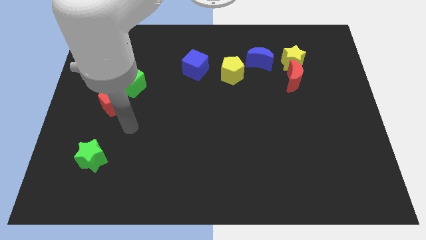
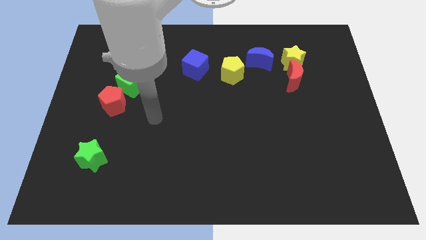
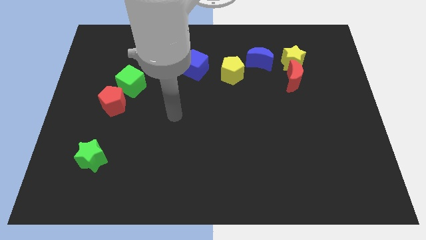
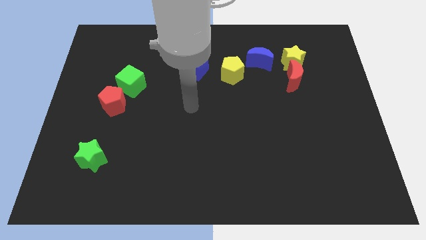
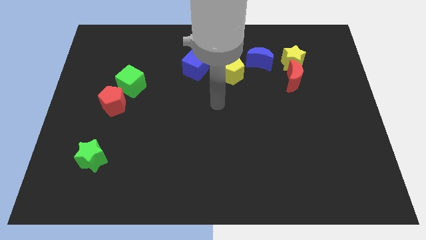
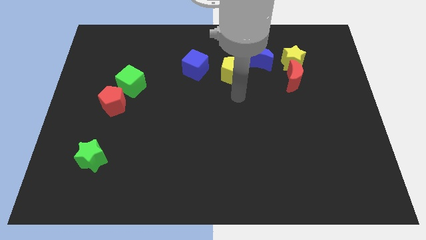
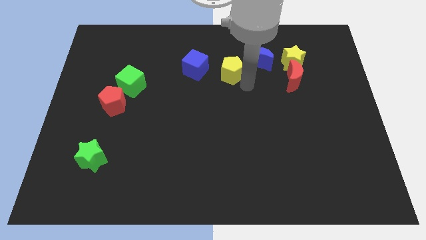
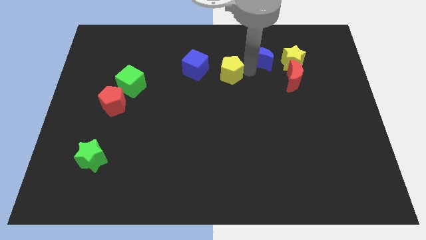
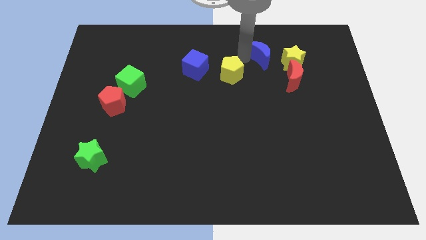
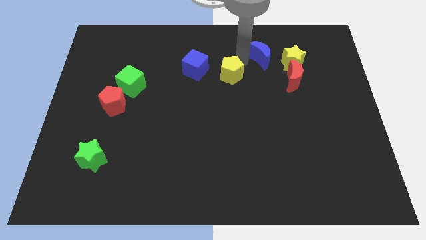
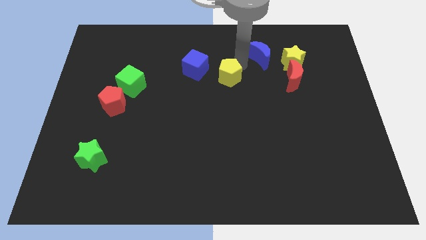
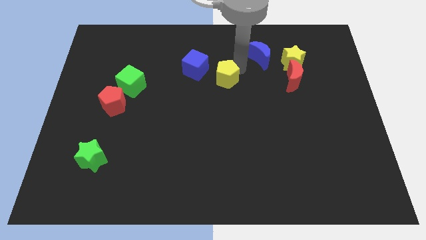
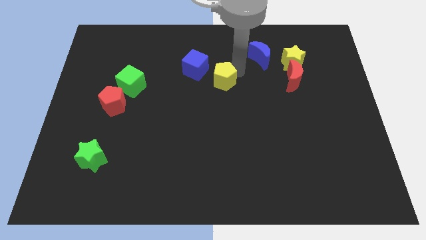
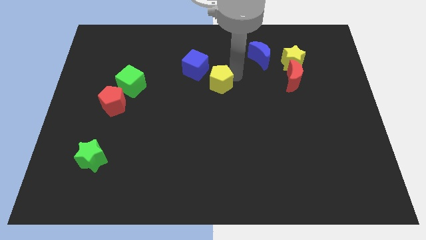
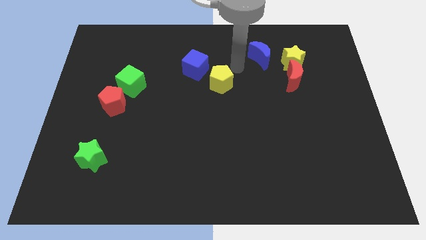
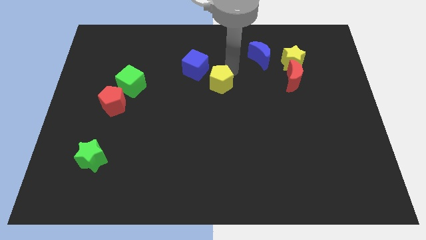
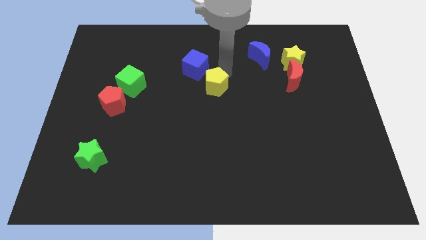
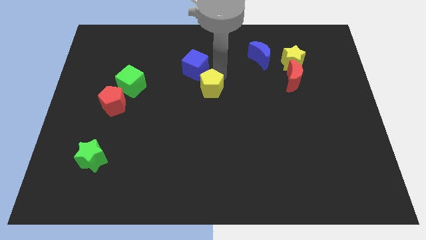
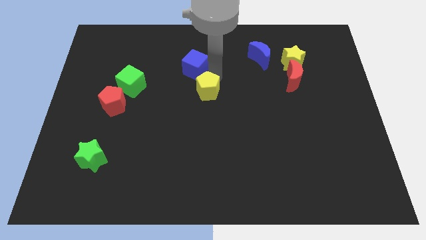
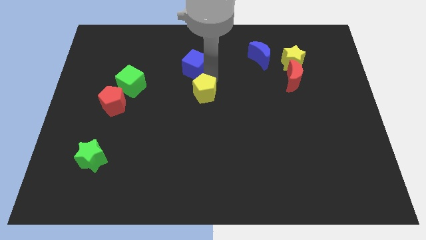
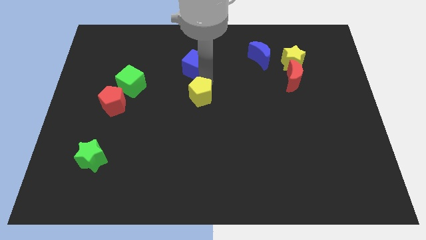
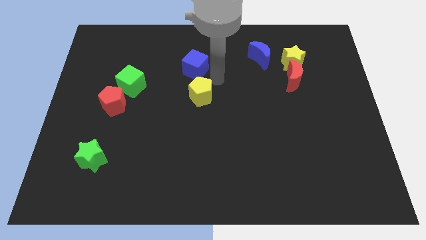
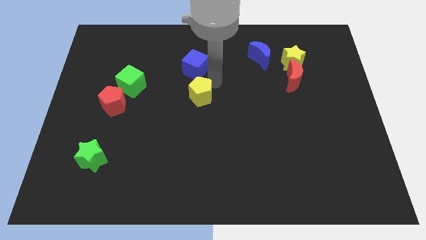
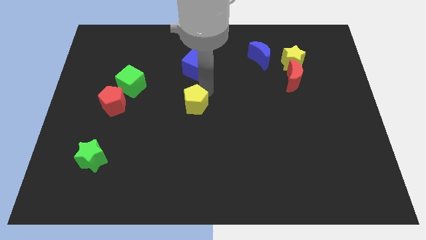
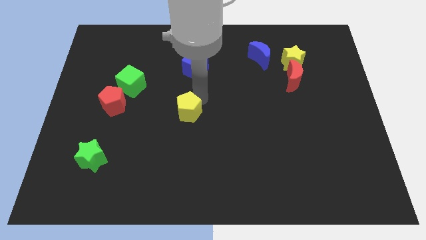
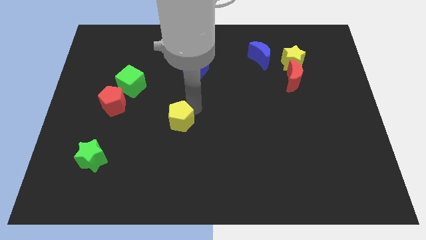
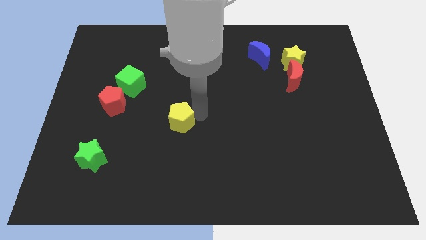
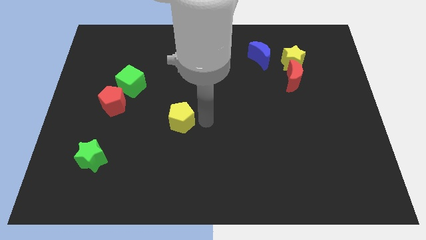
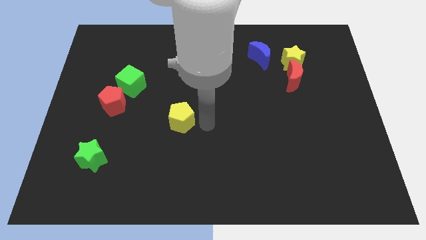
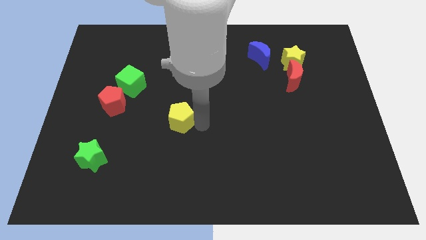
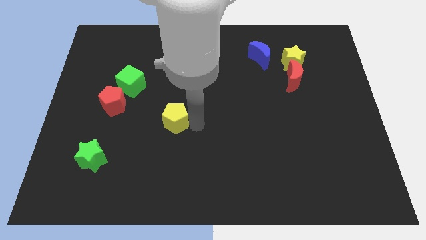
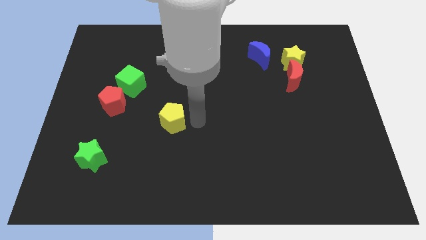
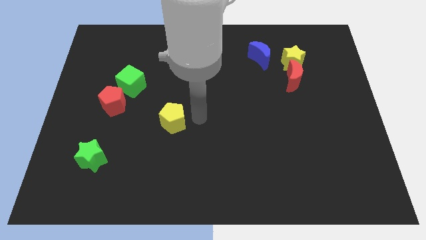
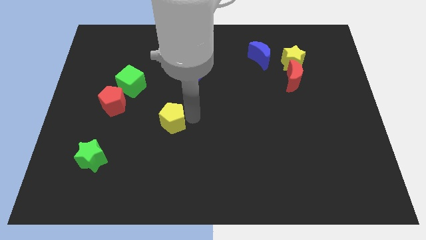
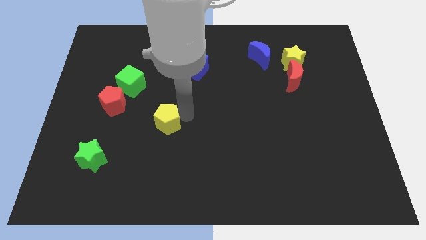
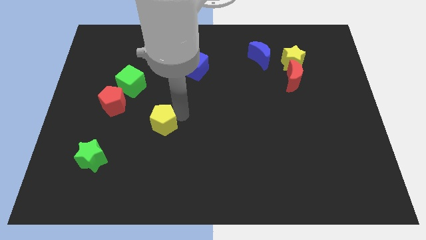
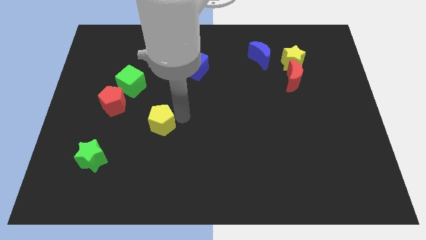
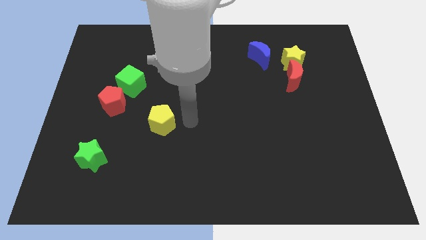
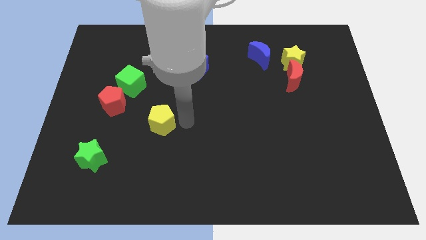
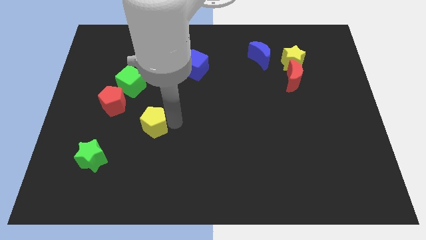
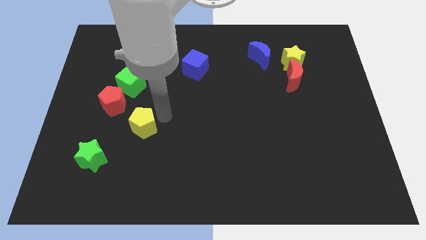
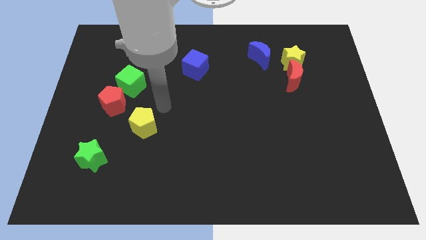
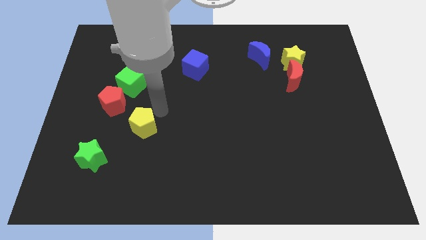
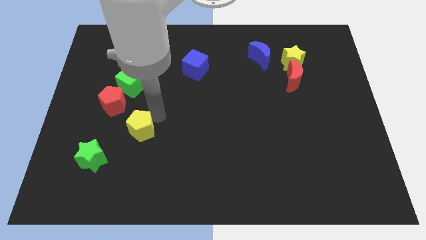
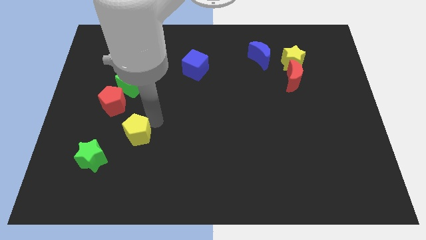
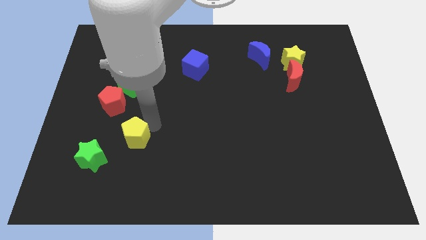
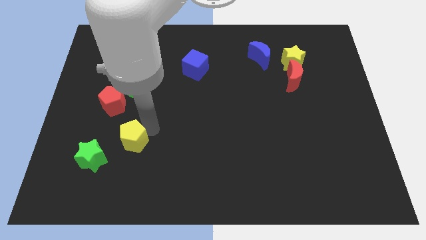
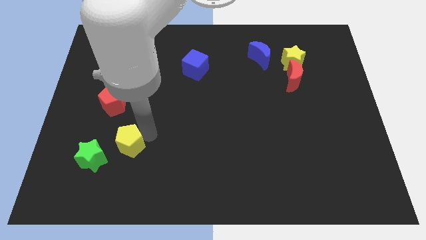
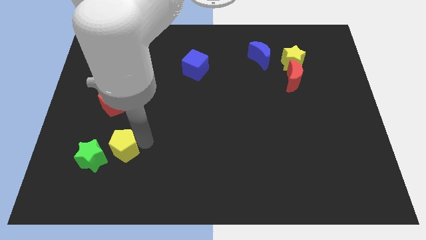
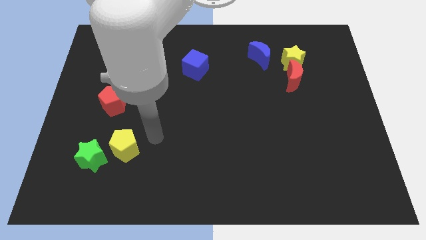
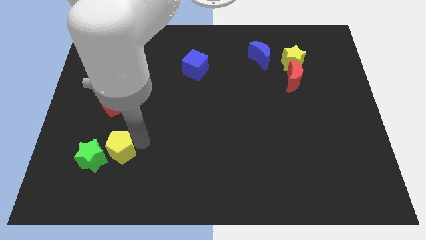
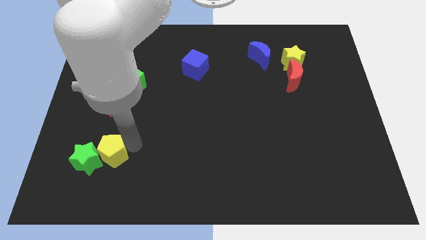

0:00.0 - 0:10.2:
slide the yellow pentagon towards the green star

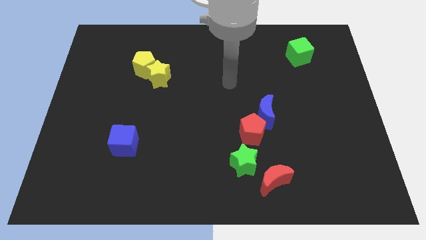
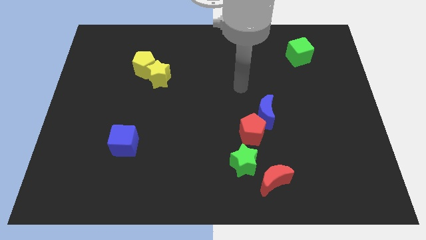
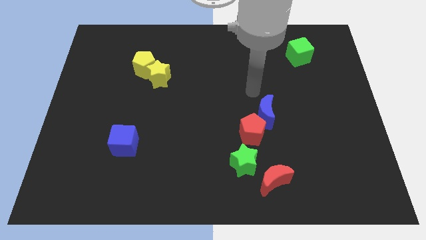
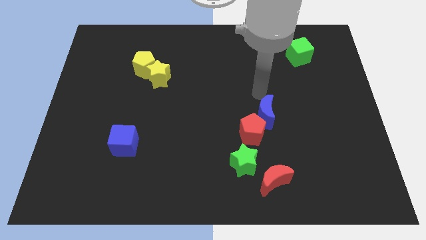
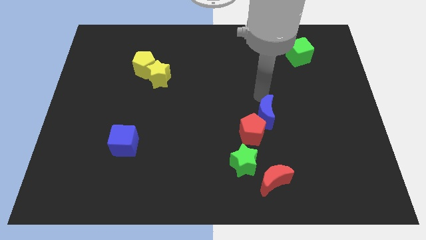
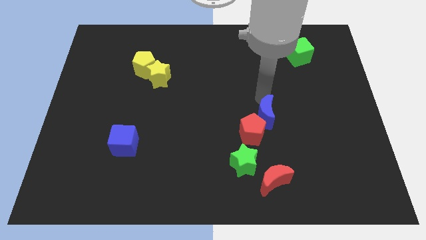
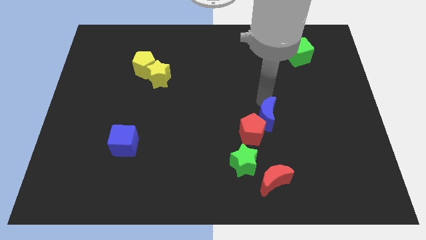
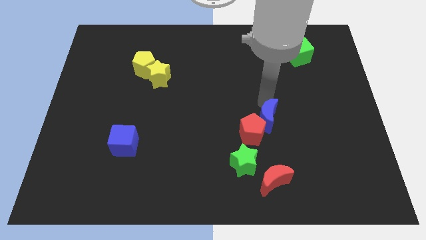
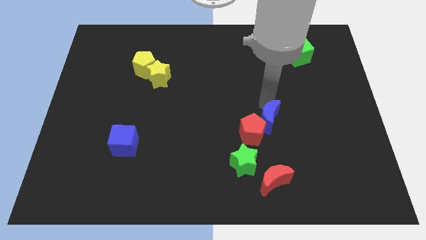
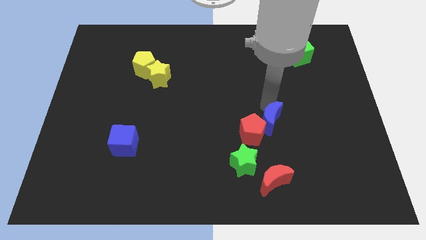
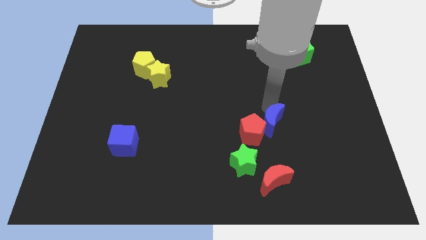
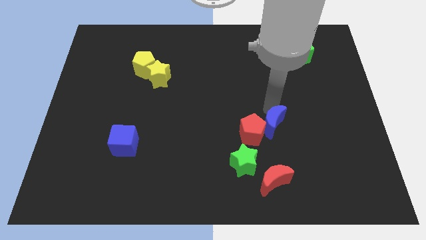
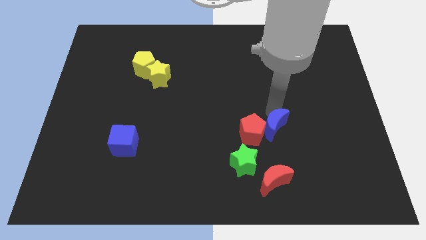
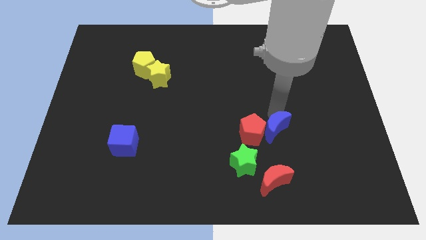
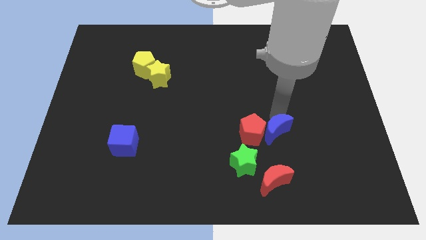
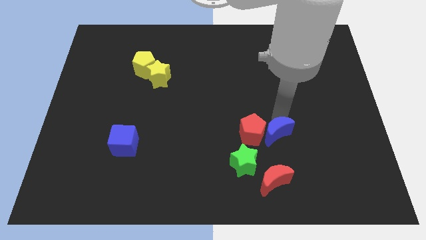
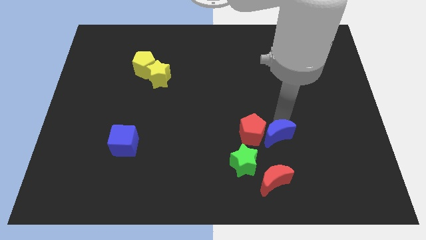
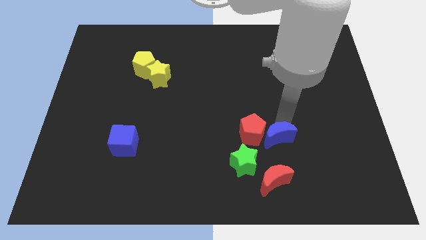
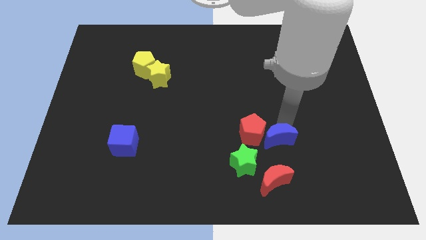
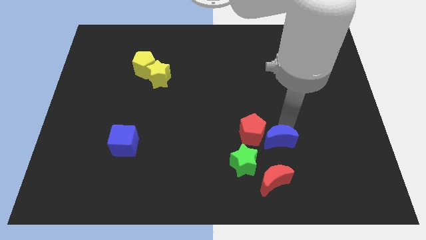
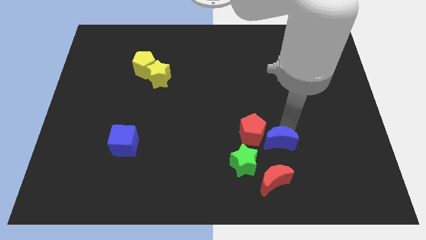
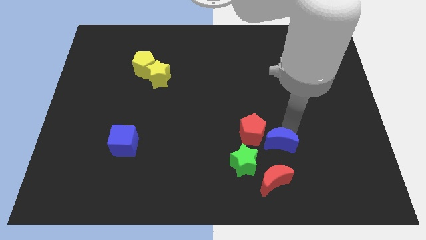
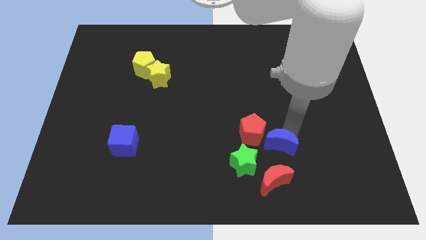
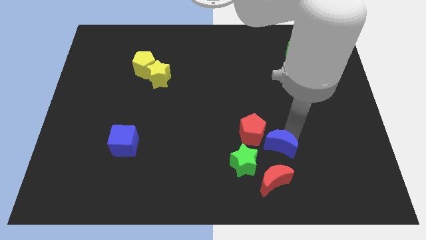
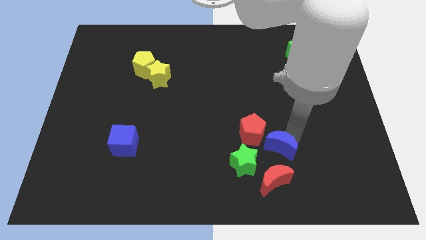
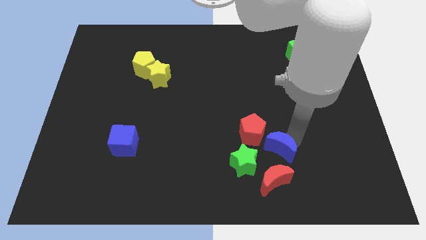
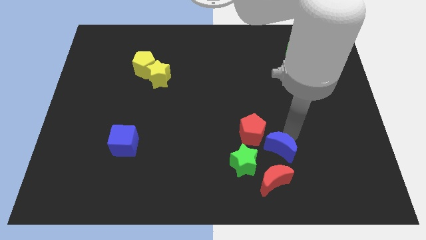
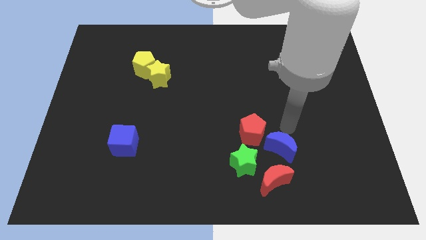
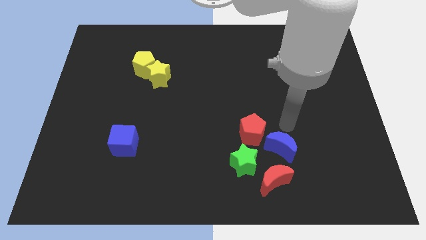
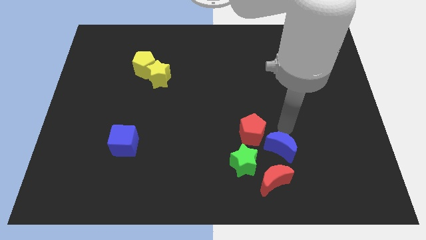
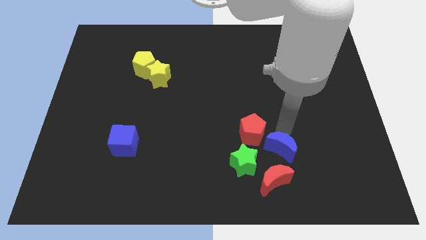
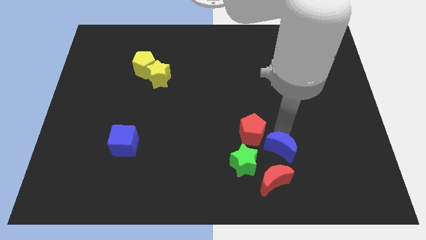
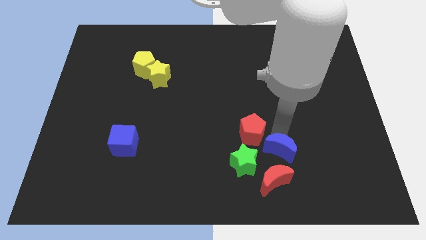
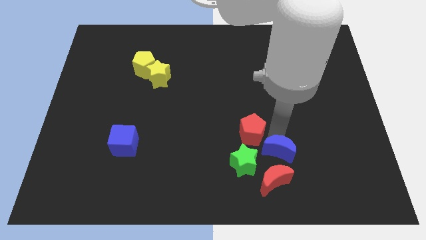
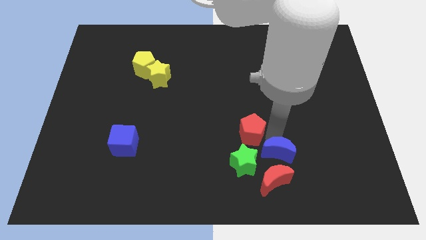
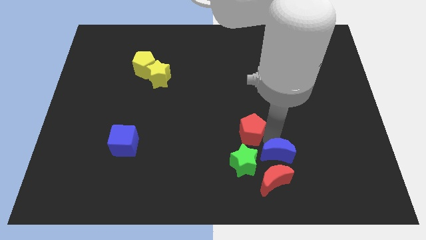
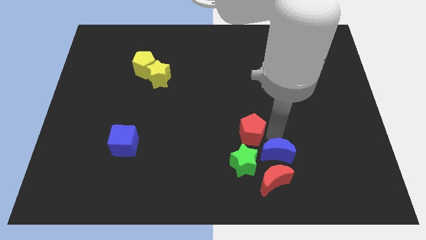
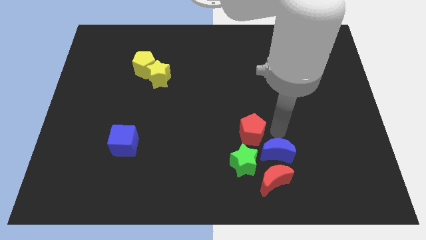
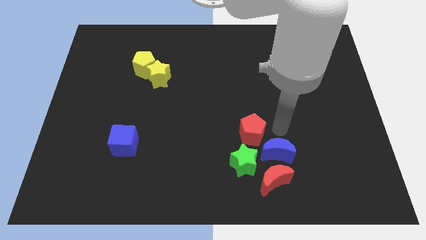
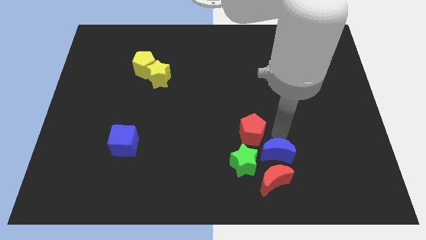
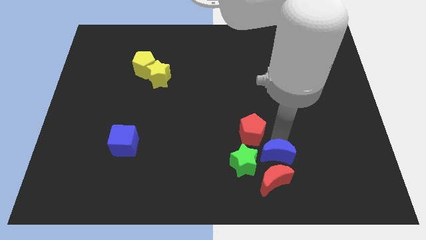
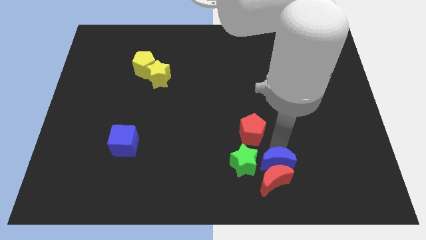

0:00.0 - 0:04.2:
slide the blue moon towards the red moon
